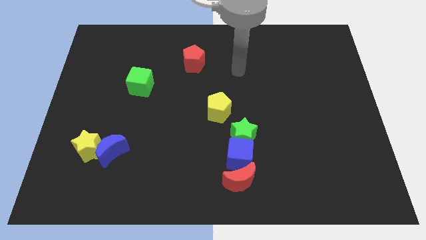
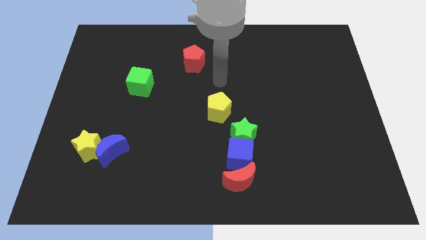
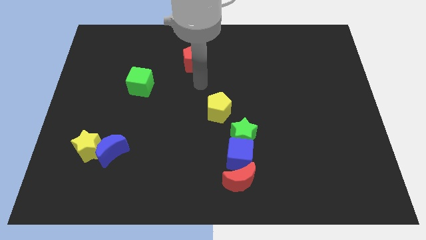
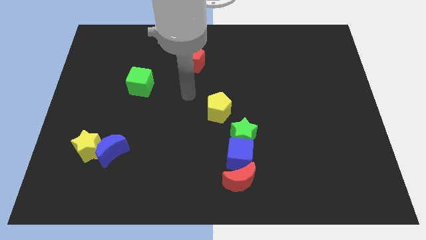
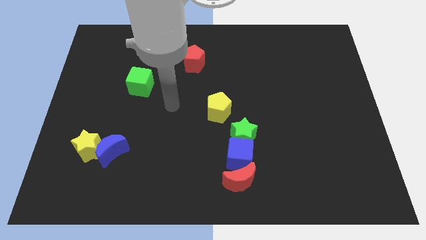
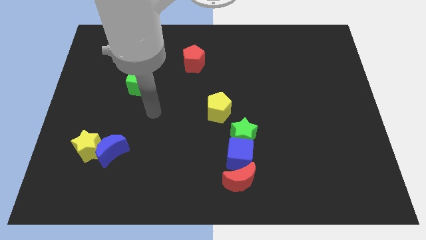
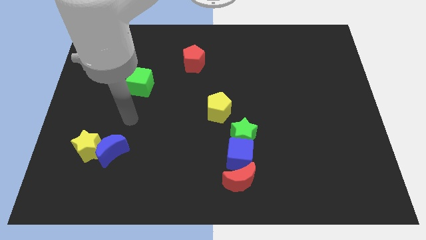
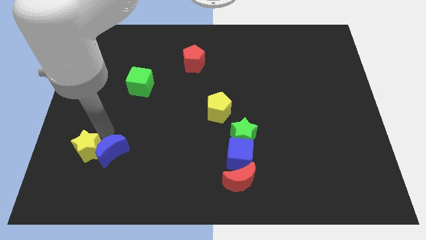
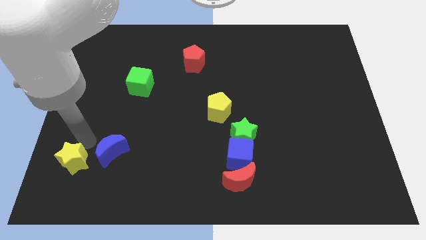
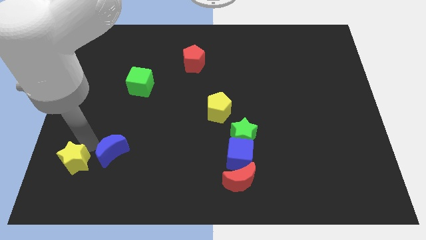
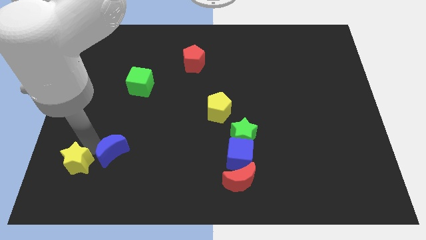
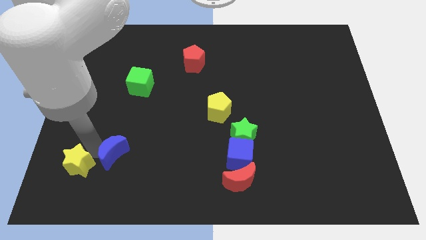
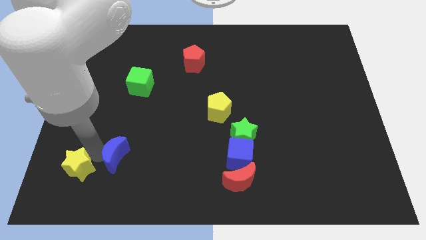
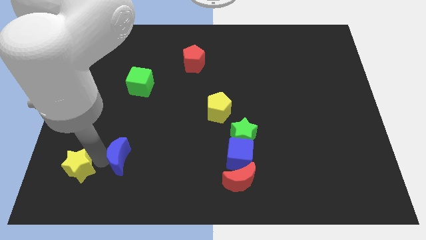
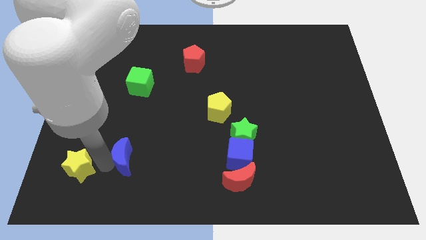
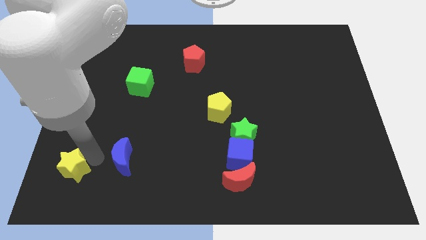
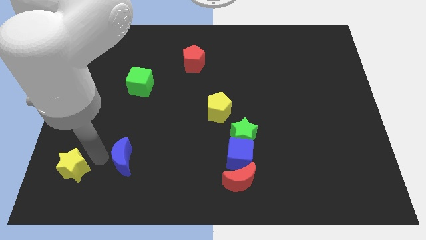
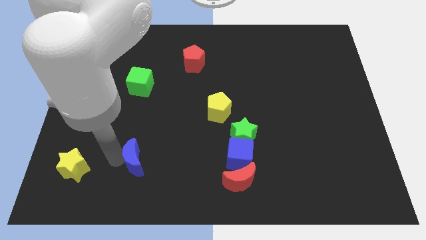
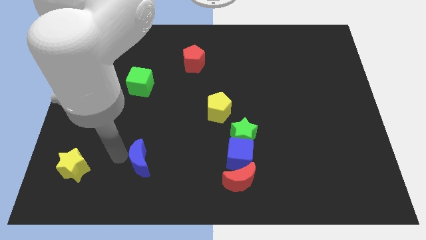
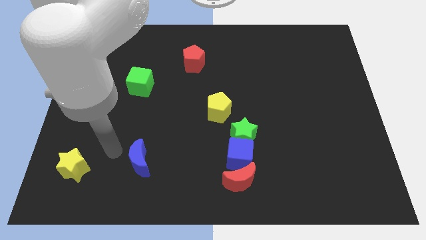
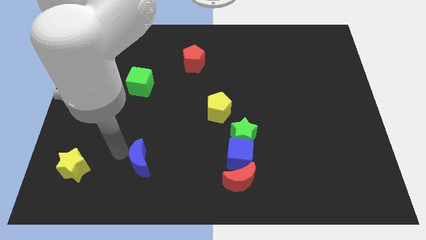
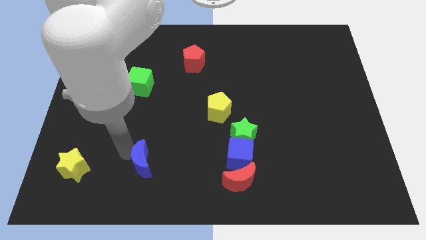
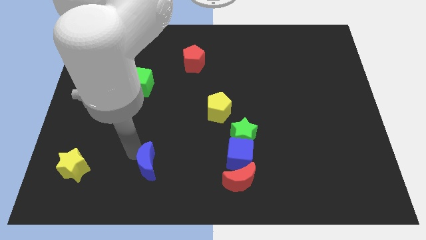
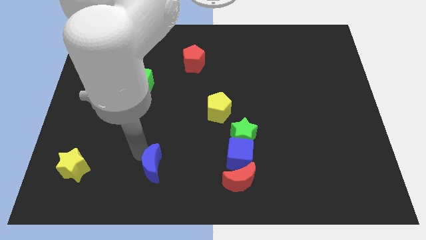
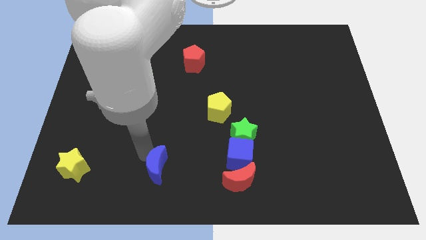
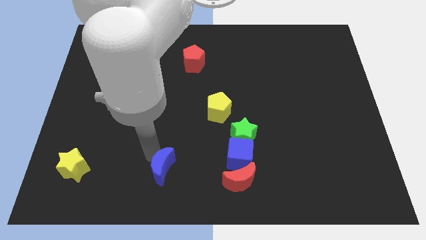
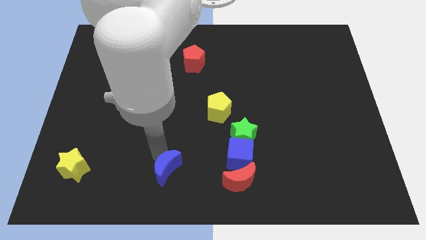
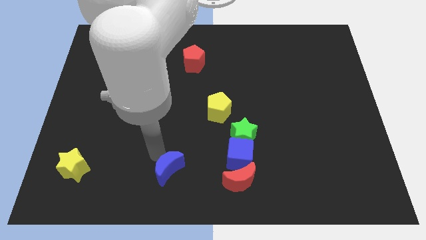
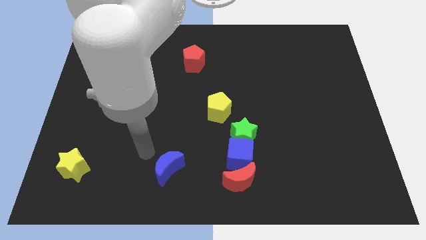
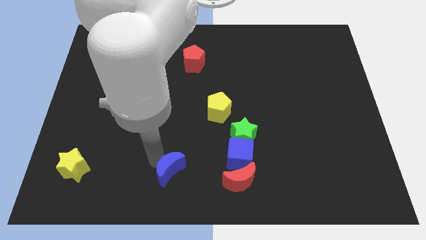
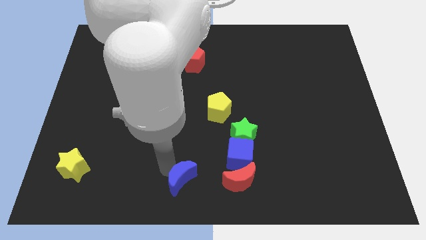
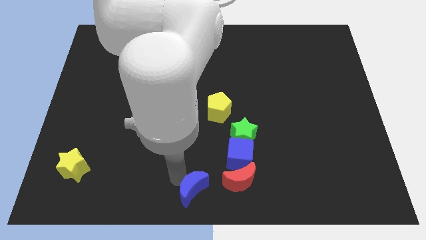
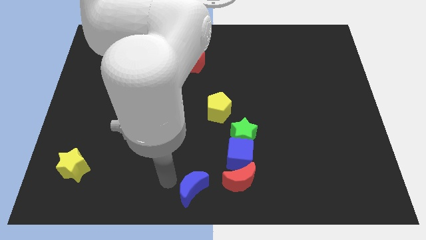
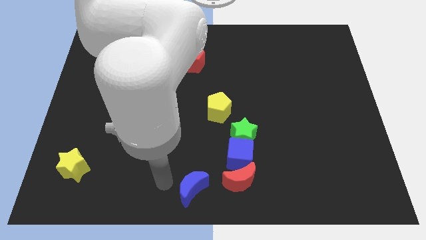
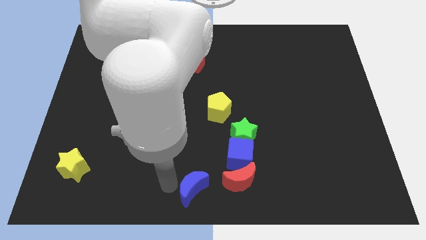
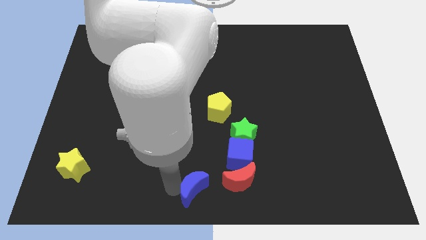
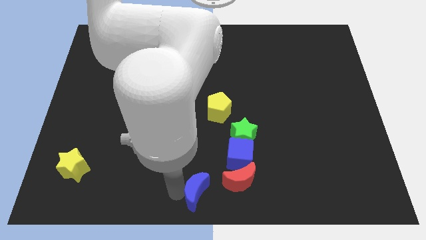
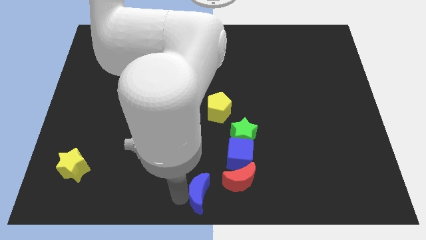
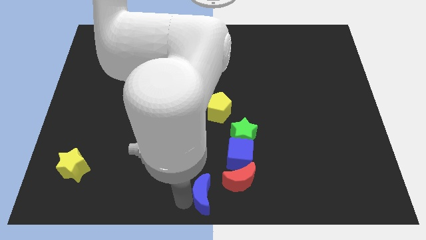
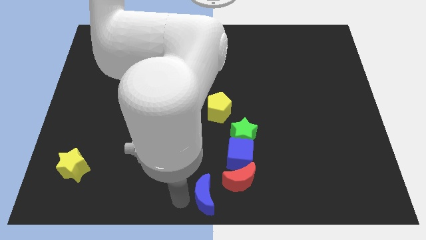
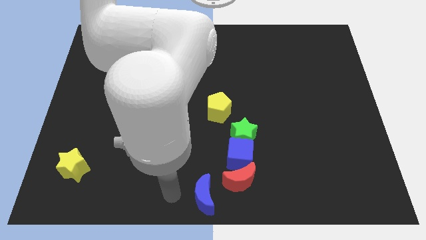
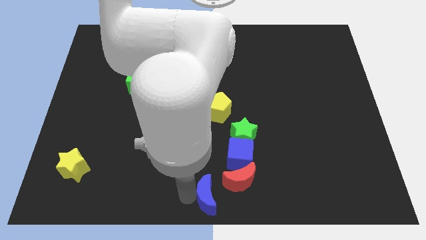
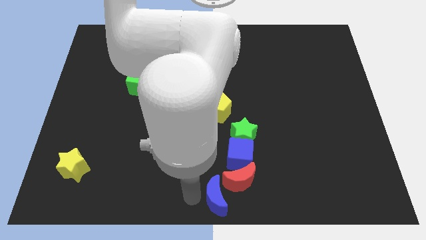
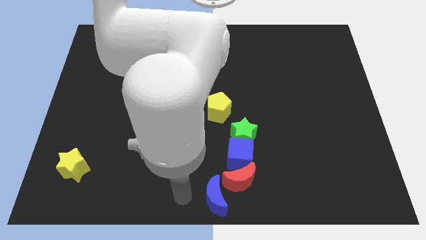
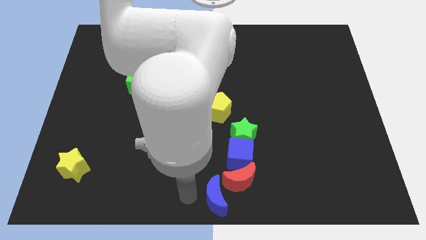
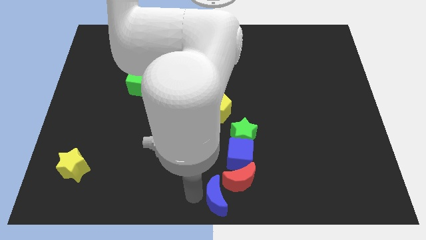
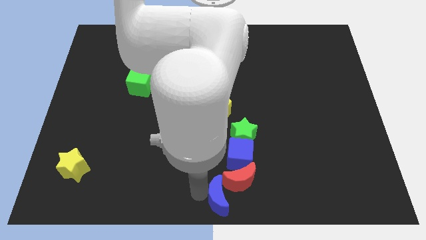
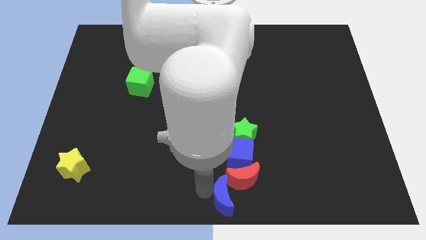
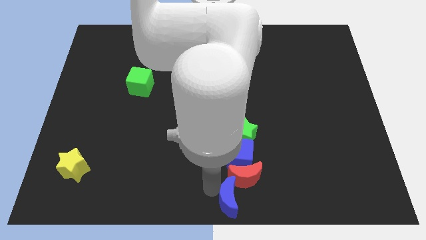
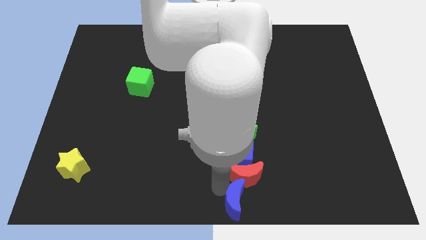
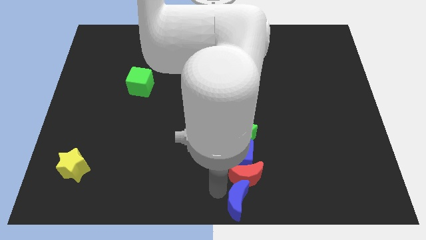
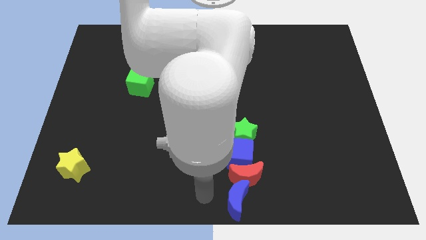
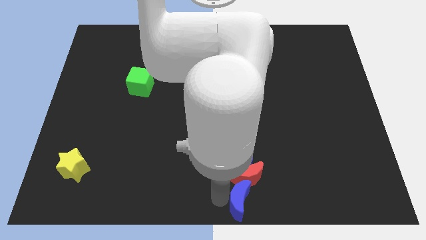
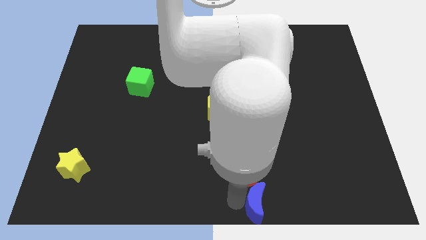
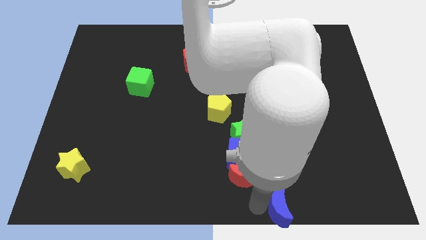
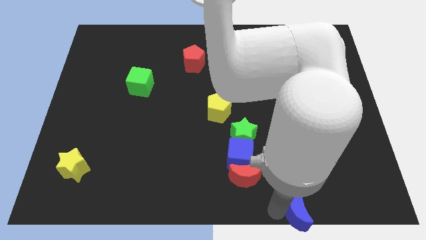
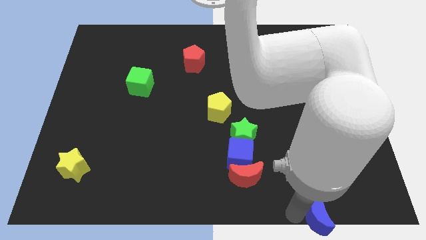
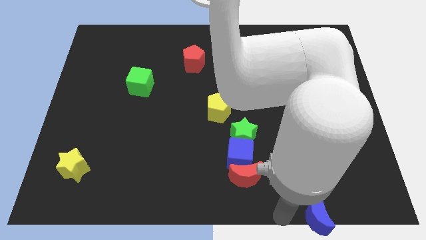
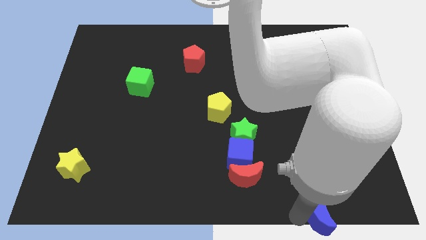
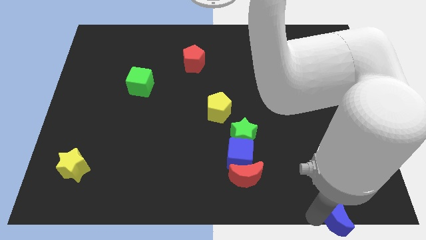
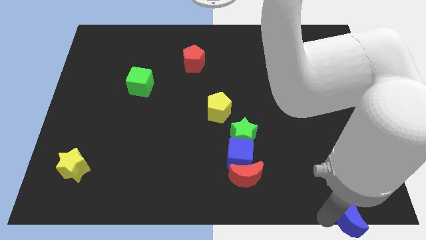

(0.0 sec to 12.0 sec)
put the blue moon to the bottom right
